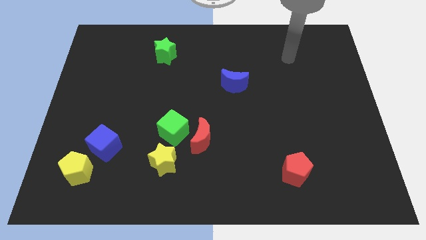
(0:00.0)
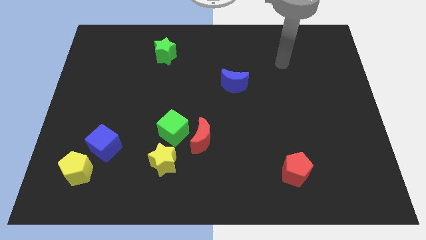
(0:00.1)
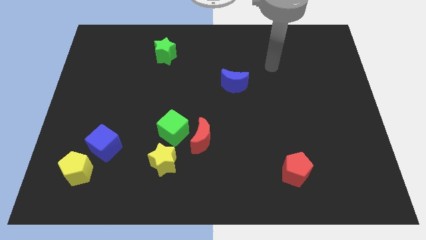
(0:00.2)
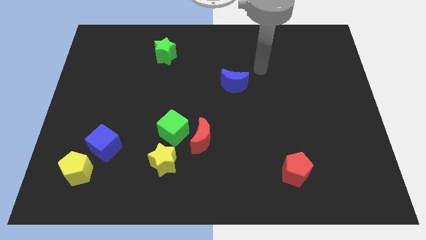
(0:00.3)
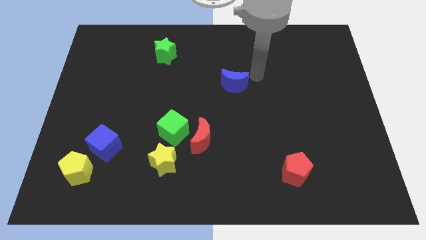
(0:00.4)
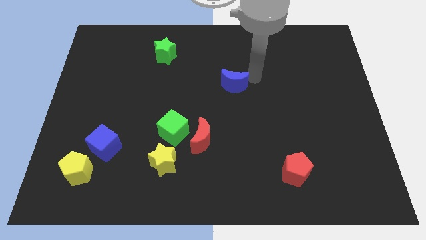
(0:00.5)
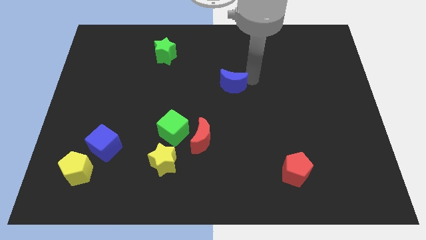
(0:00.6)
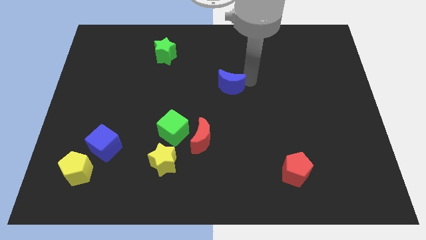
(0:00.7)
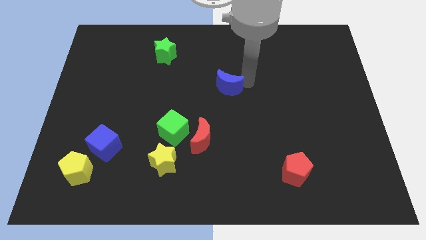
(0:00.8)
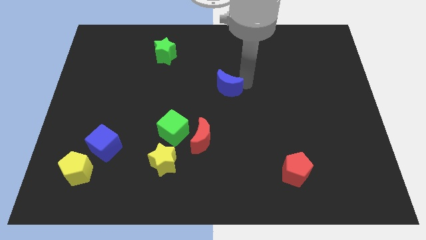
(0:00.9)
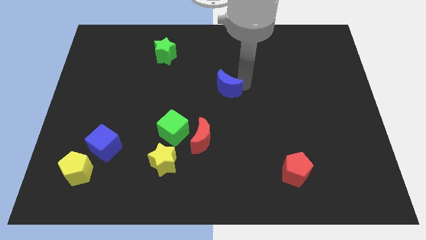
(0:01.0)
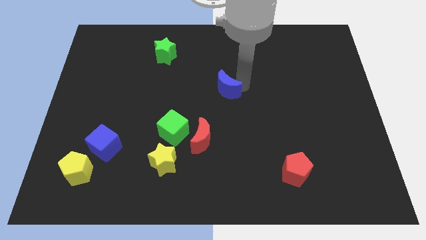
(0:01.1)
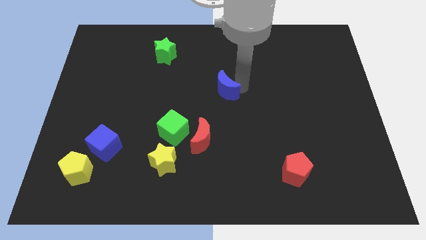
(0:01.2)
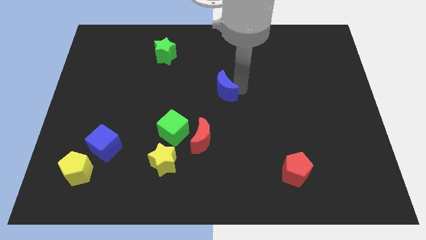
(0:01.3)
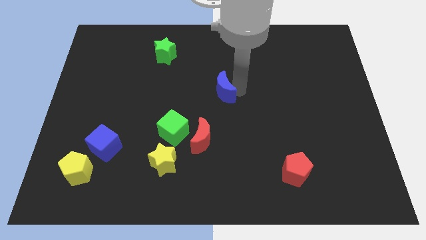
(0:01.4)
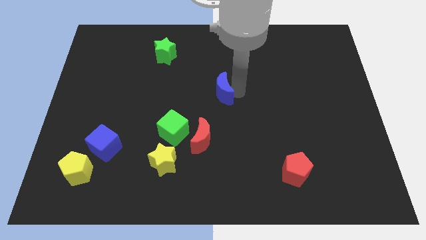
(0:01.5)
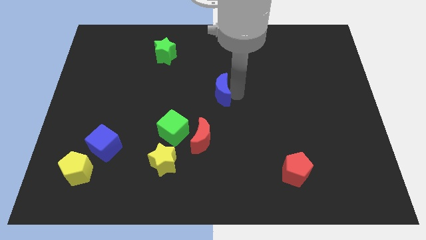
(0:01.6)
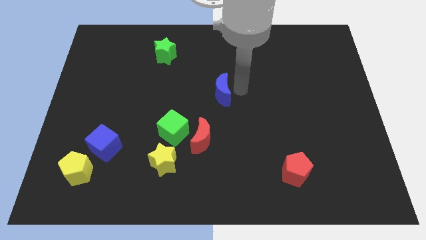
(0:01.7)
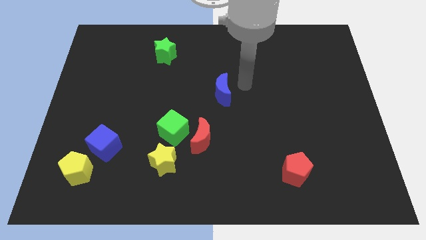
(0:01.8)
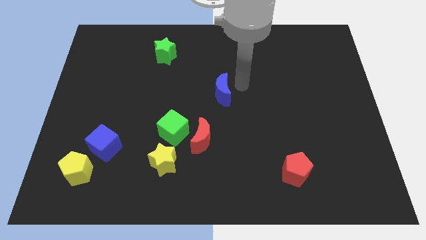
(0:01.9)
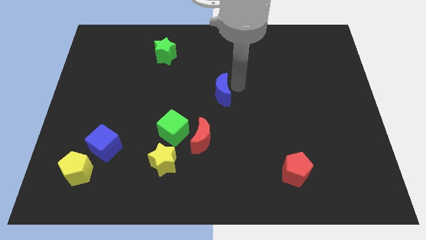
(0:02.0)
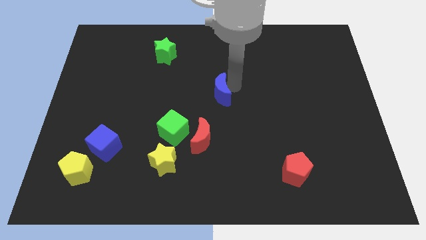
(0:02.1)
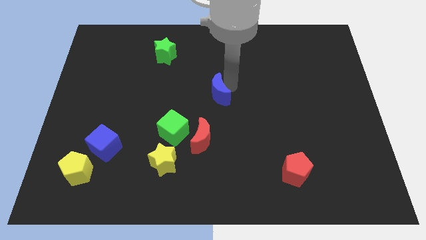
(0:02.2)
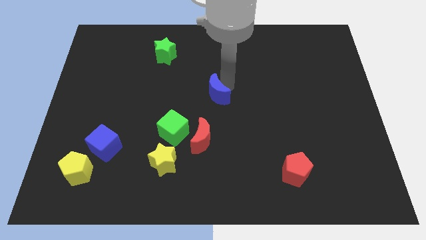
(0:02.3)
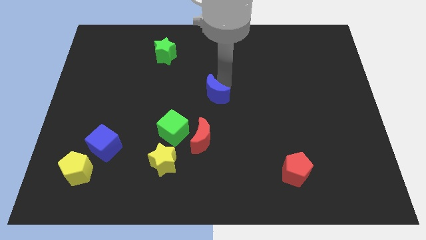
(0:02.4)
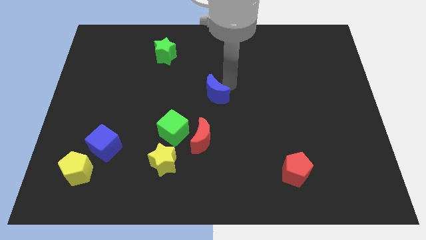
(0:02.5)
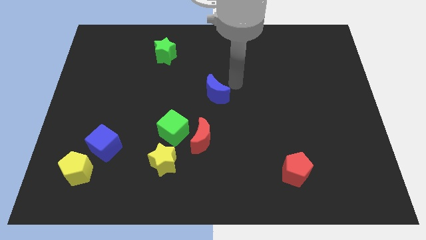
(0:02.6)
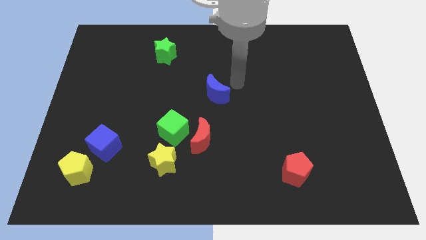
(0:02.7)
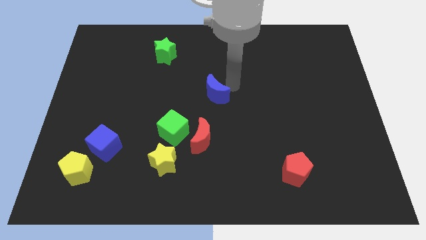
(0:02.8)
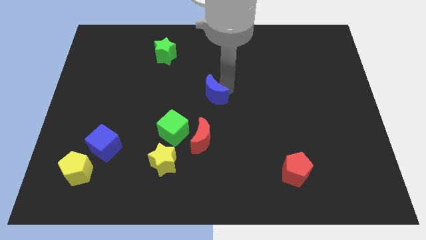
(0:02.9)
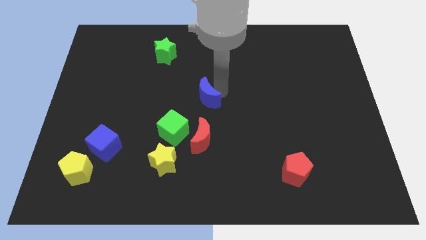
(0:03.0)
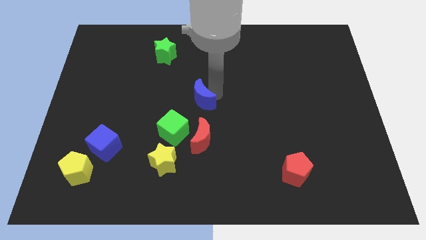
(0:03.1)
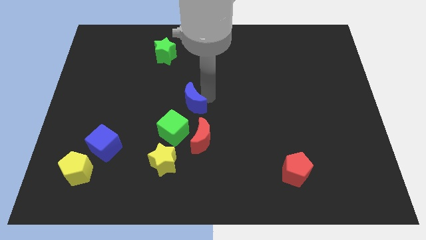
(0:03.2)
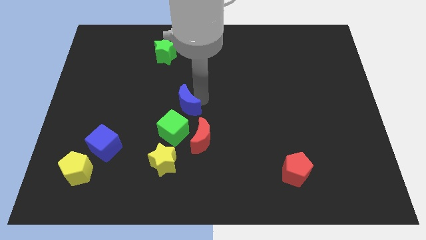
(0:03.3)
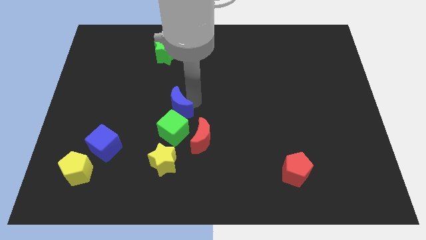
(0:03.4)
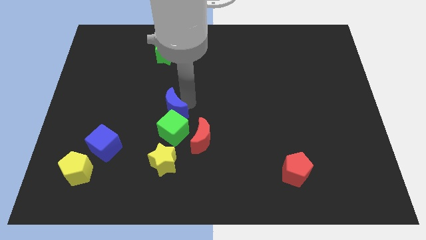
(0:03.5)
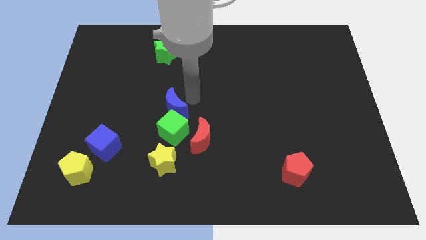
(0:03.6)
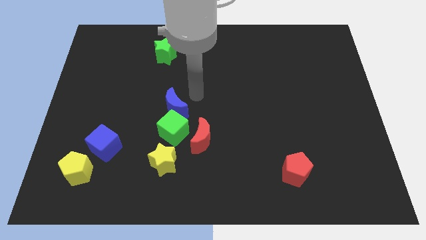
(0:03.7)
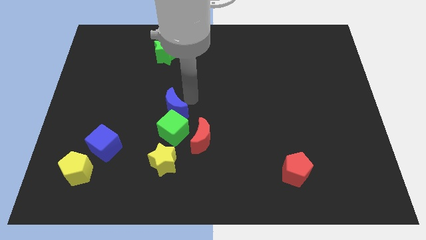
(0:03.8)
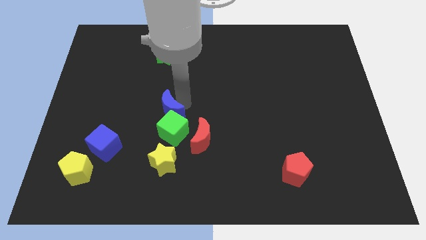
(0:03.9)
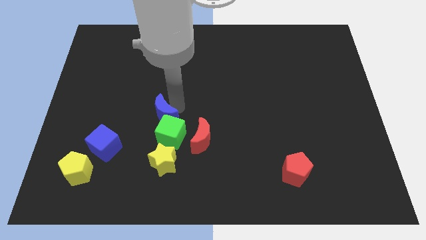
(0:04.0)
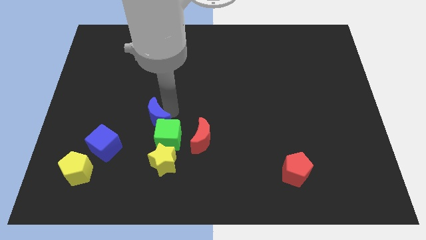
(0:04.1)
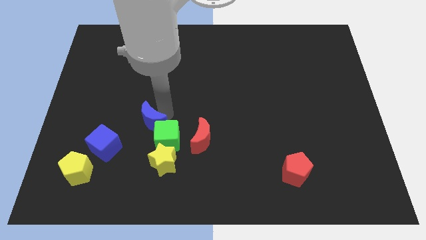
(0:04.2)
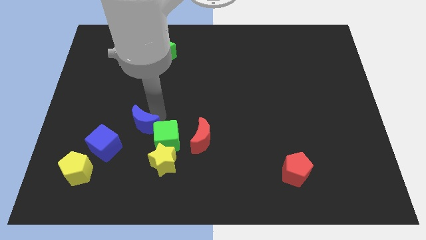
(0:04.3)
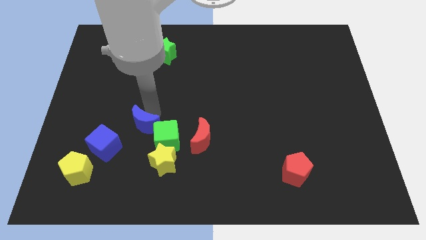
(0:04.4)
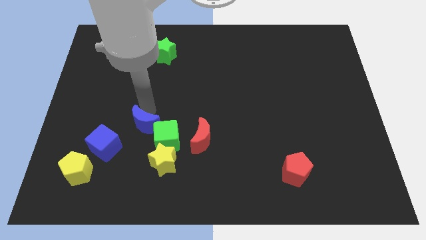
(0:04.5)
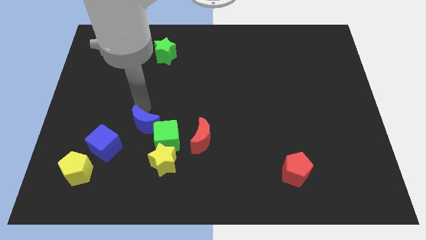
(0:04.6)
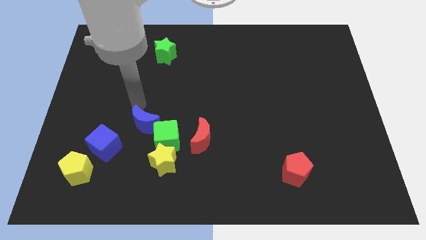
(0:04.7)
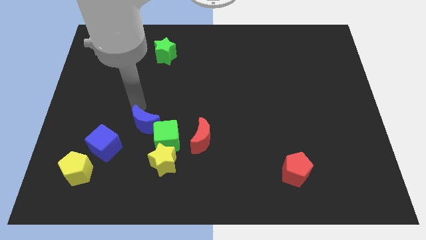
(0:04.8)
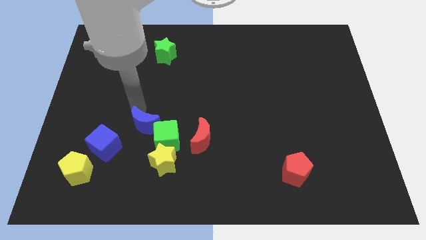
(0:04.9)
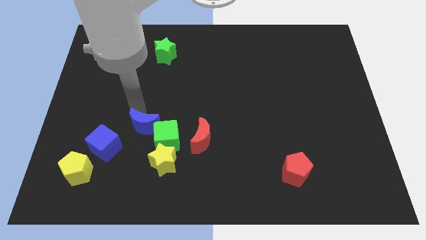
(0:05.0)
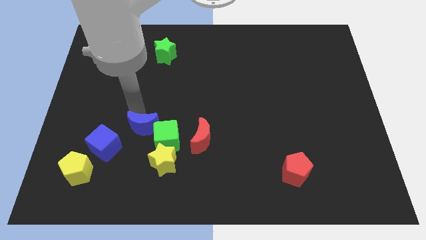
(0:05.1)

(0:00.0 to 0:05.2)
move the blue moon right of the blue cube

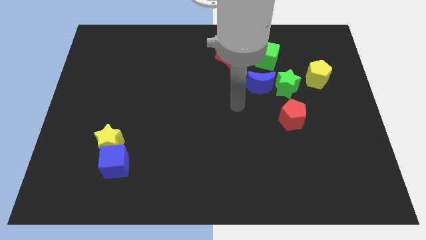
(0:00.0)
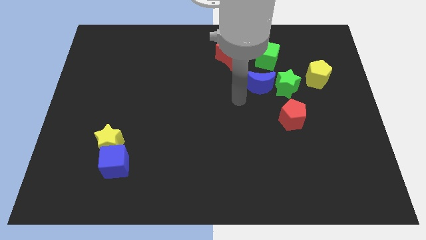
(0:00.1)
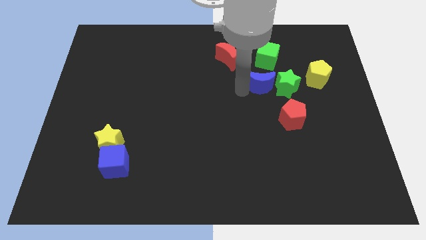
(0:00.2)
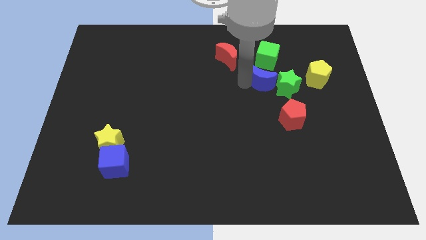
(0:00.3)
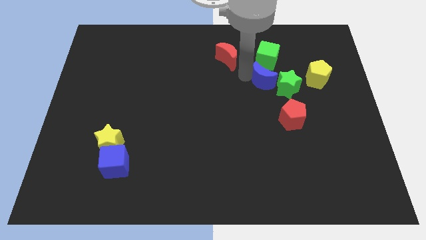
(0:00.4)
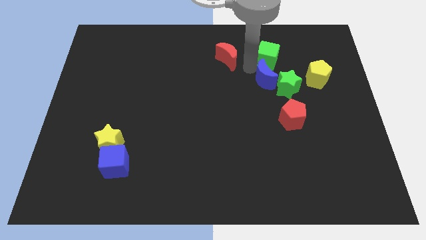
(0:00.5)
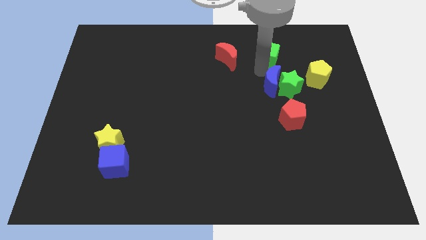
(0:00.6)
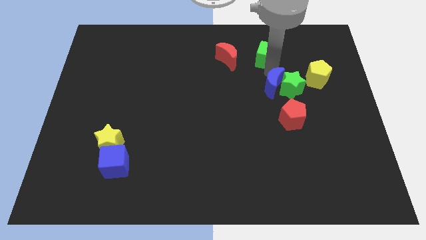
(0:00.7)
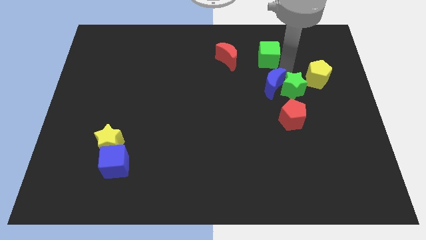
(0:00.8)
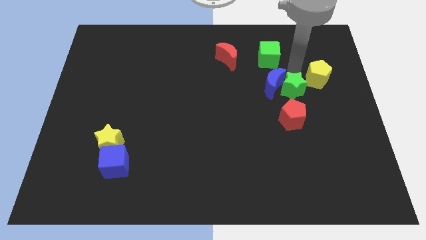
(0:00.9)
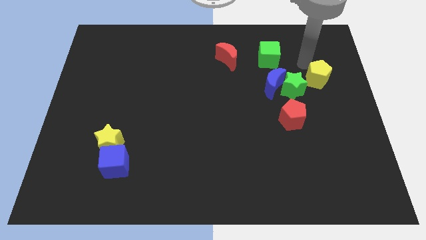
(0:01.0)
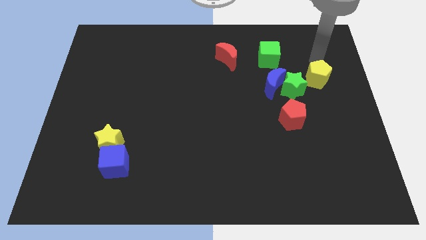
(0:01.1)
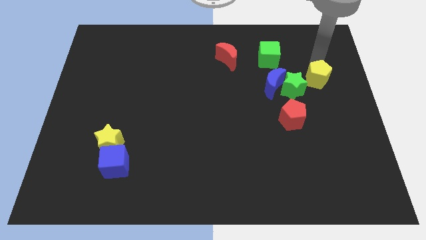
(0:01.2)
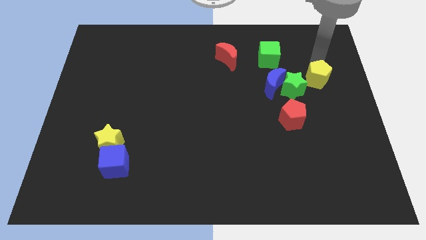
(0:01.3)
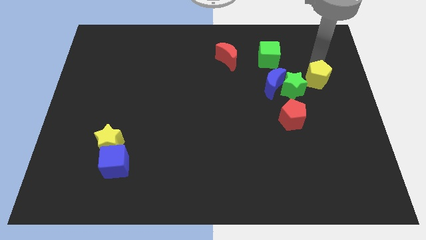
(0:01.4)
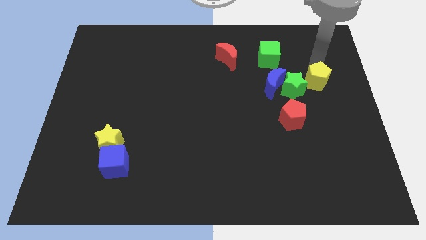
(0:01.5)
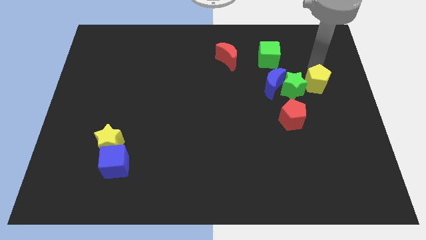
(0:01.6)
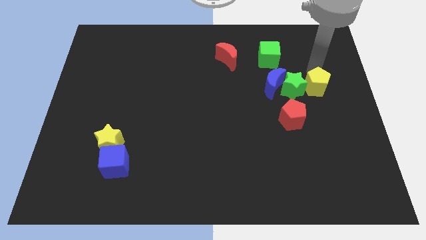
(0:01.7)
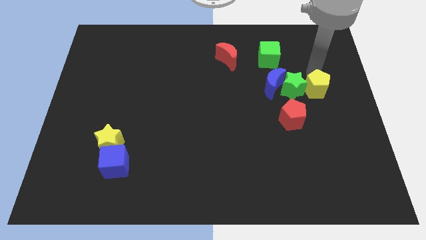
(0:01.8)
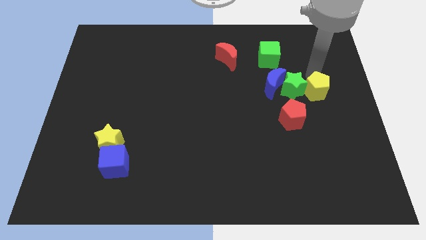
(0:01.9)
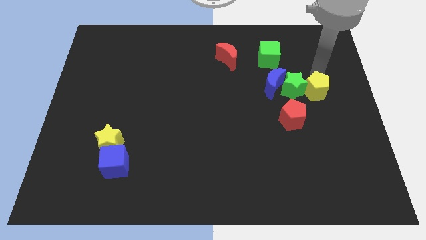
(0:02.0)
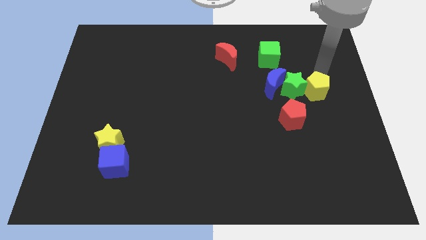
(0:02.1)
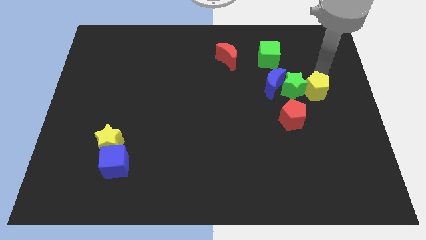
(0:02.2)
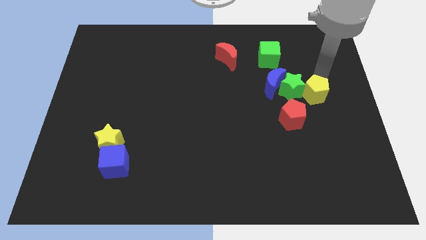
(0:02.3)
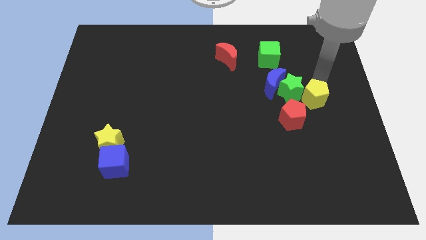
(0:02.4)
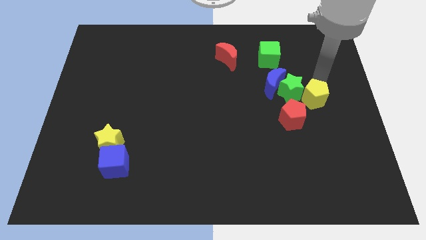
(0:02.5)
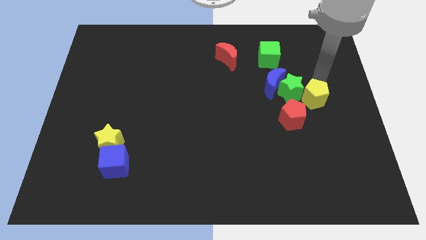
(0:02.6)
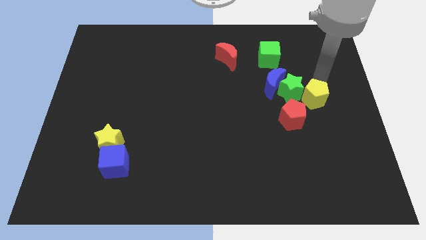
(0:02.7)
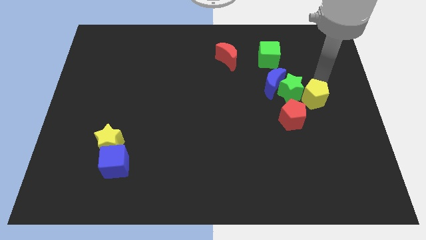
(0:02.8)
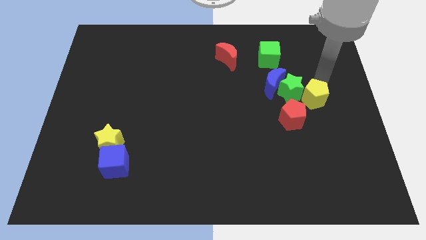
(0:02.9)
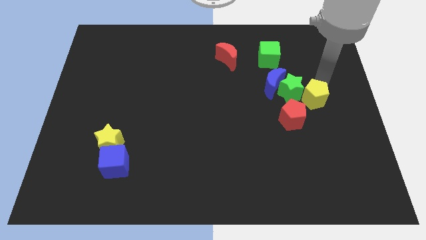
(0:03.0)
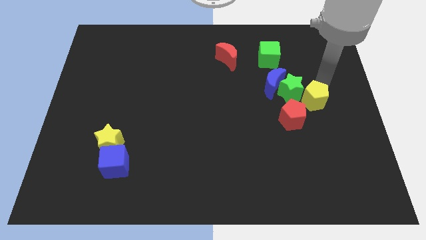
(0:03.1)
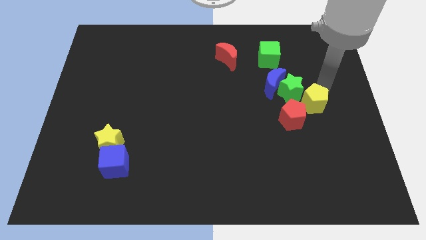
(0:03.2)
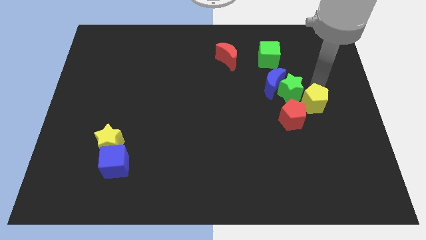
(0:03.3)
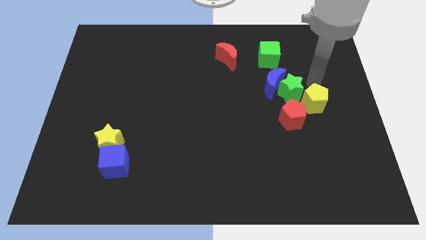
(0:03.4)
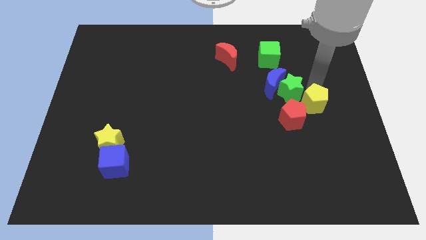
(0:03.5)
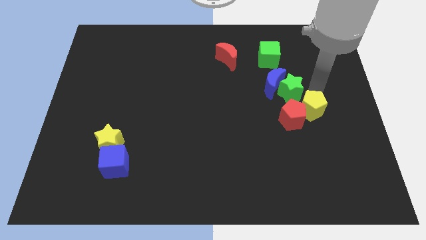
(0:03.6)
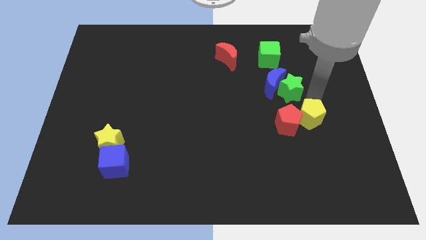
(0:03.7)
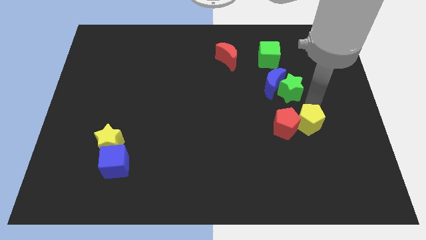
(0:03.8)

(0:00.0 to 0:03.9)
push the yellow pentagon diagonally down and to the right of the red pentagon
